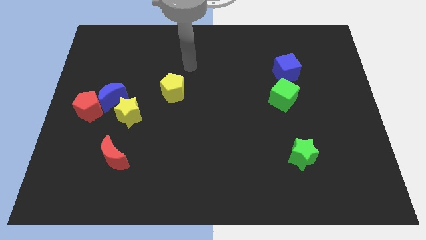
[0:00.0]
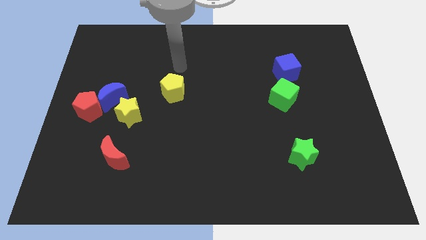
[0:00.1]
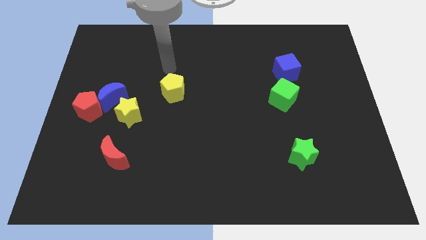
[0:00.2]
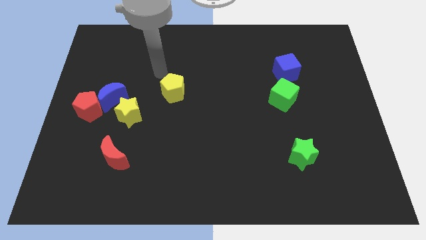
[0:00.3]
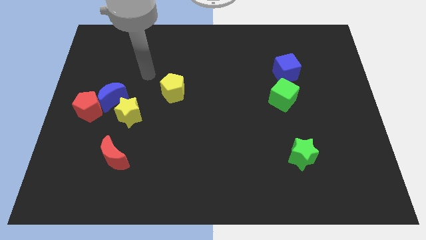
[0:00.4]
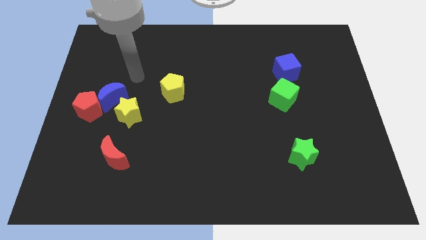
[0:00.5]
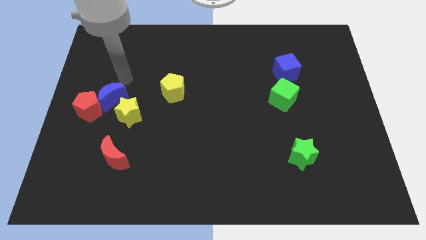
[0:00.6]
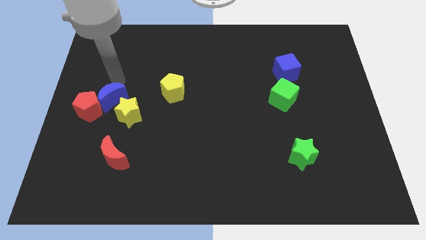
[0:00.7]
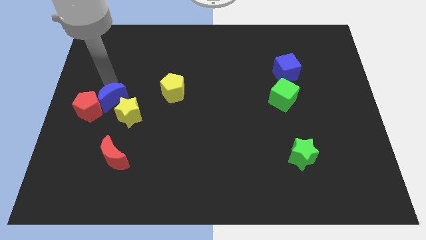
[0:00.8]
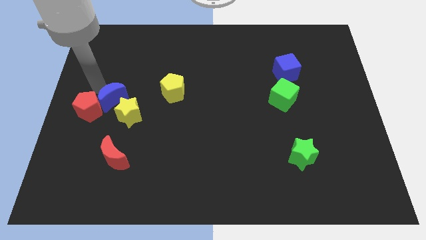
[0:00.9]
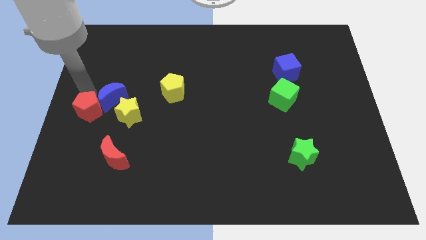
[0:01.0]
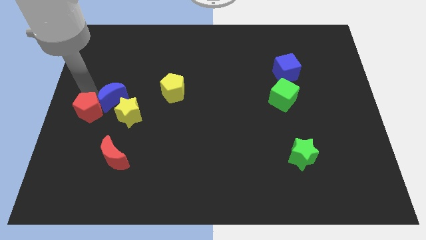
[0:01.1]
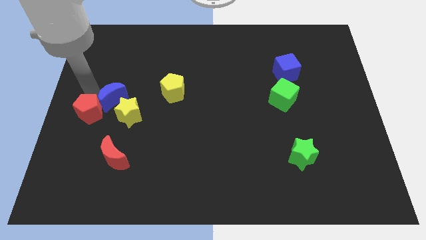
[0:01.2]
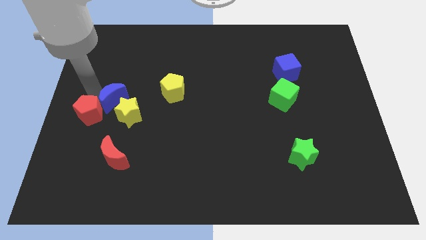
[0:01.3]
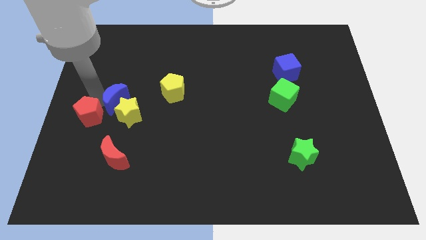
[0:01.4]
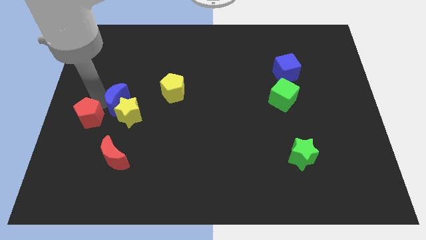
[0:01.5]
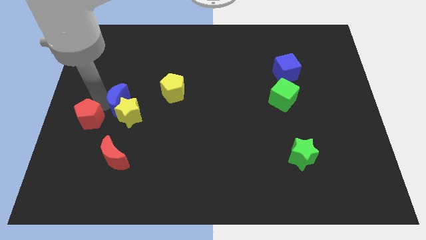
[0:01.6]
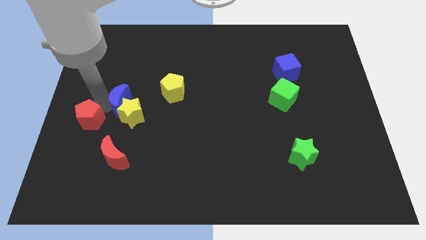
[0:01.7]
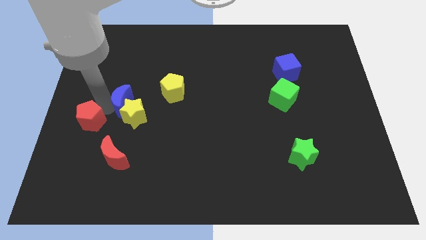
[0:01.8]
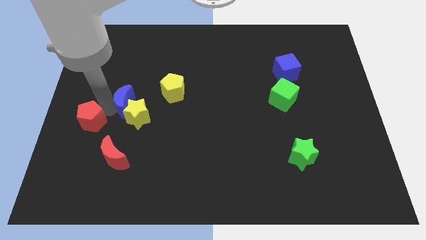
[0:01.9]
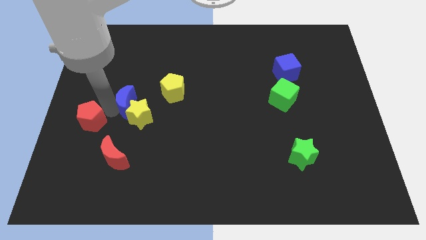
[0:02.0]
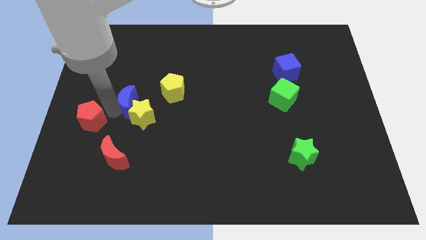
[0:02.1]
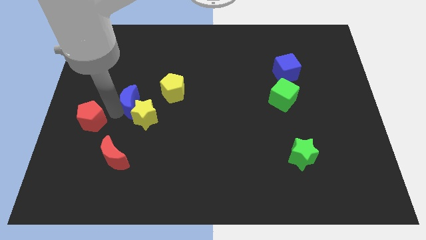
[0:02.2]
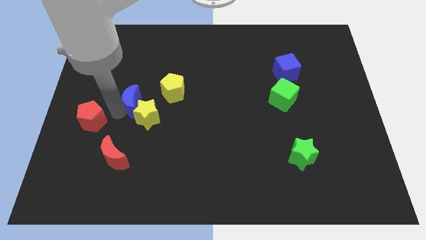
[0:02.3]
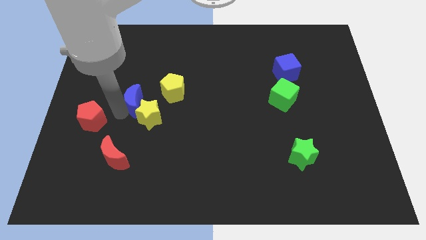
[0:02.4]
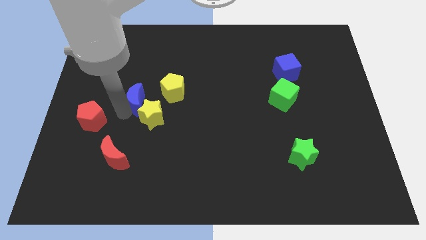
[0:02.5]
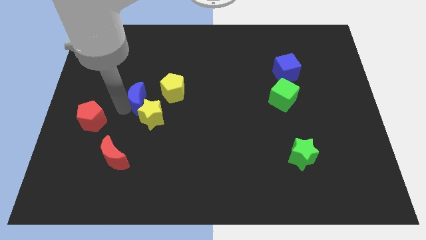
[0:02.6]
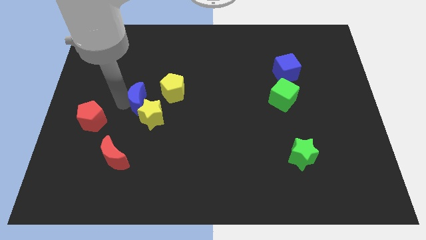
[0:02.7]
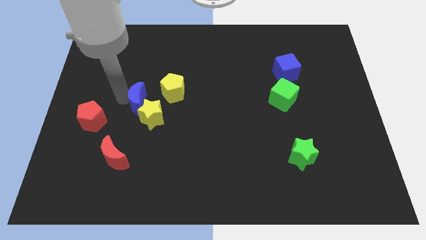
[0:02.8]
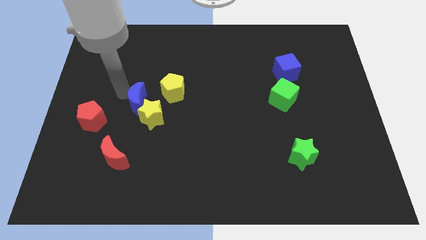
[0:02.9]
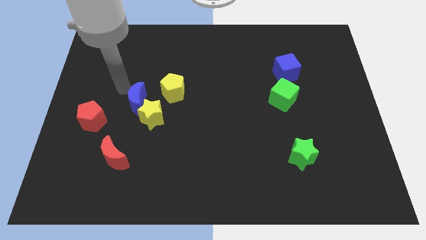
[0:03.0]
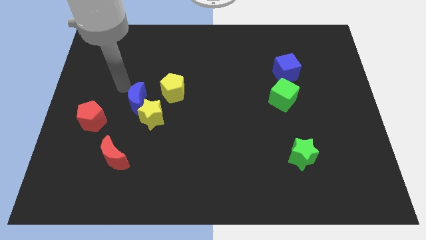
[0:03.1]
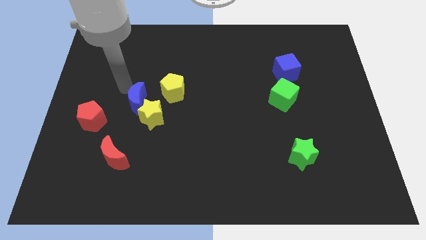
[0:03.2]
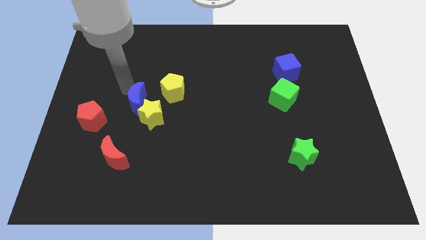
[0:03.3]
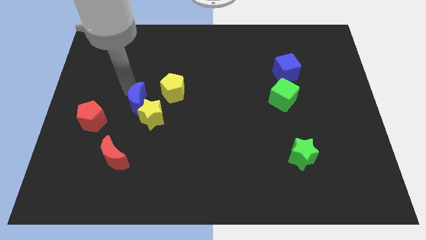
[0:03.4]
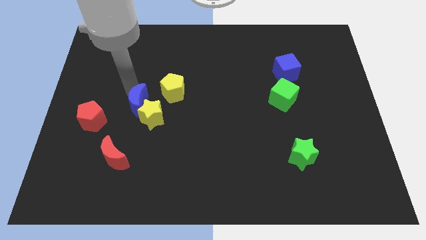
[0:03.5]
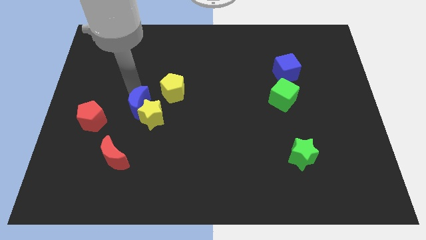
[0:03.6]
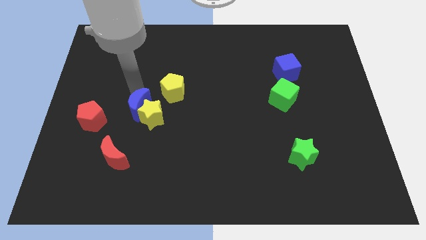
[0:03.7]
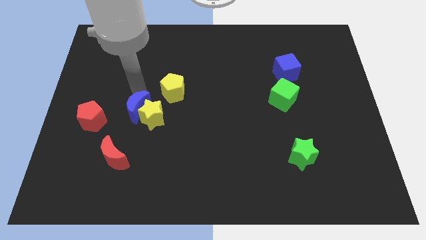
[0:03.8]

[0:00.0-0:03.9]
slightly push the blue moon downwards and right diagonally

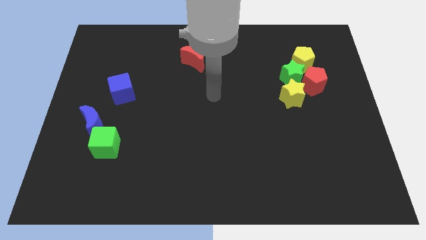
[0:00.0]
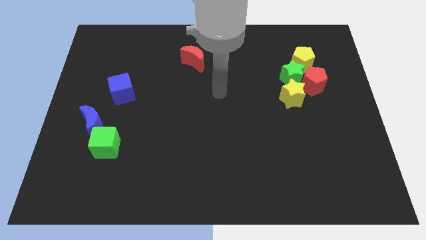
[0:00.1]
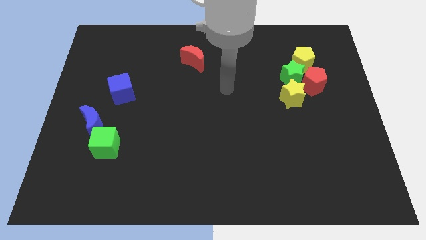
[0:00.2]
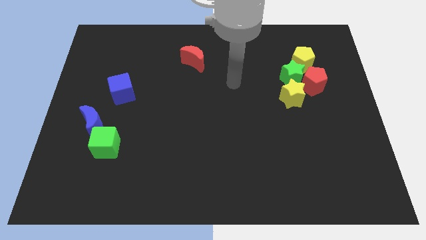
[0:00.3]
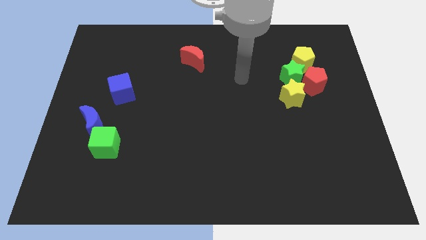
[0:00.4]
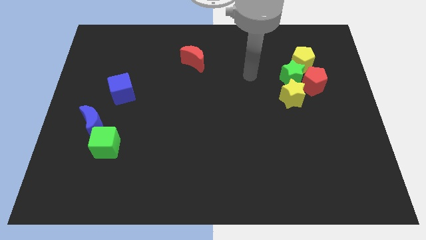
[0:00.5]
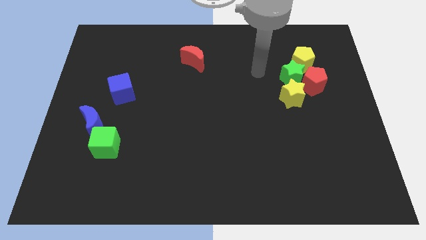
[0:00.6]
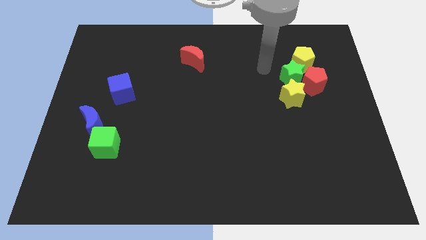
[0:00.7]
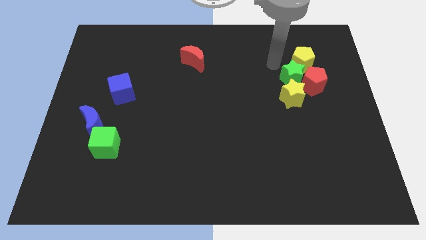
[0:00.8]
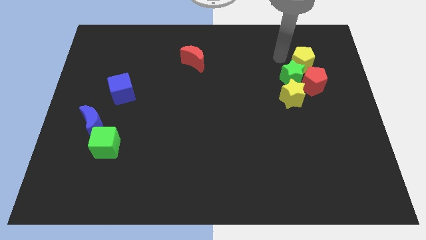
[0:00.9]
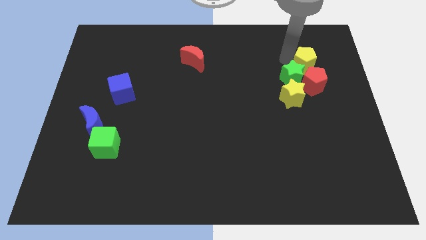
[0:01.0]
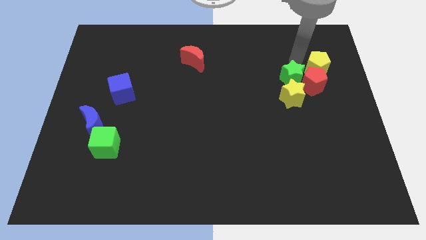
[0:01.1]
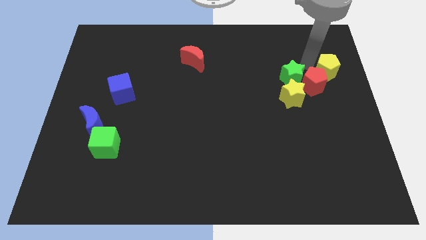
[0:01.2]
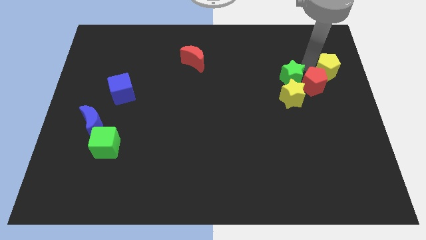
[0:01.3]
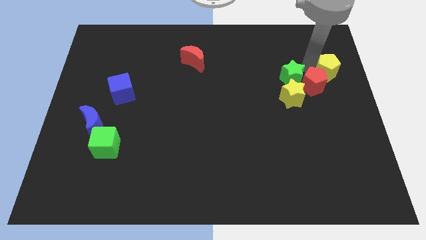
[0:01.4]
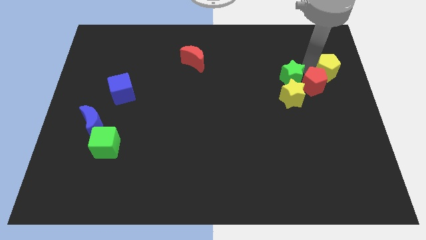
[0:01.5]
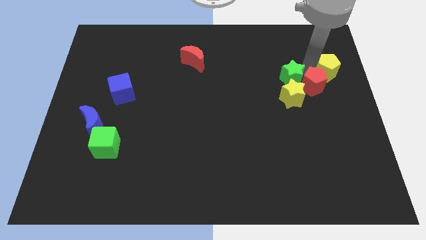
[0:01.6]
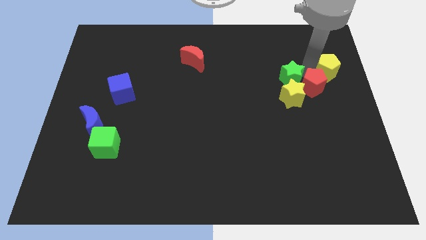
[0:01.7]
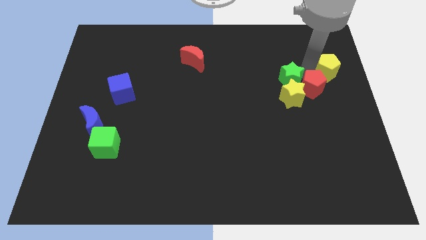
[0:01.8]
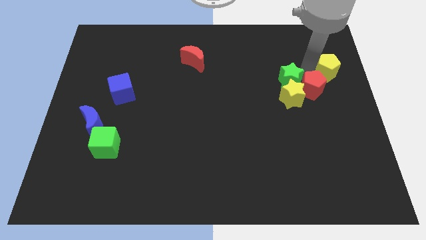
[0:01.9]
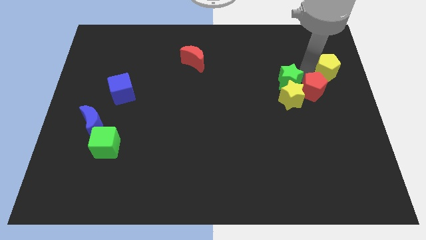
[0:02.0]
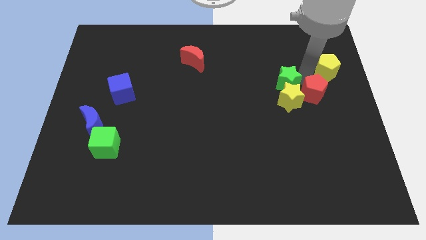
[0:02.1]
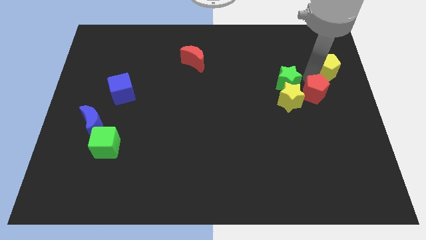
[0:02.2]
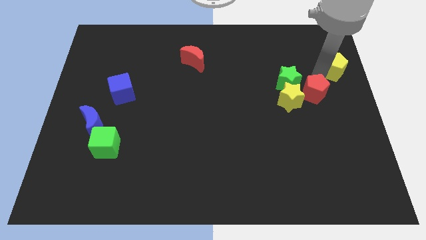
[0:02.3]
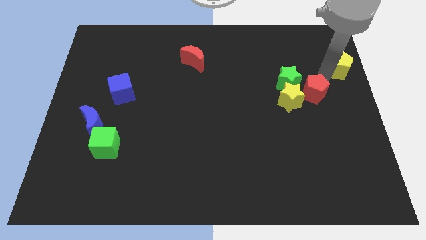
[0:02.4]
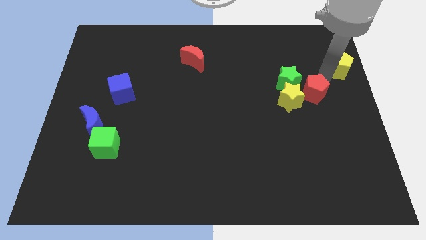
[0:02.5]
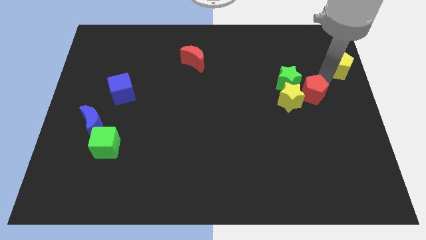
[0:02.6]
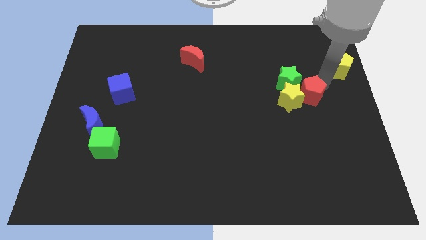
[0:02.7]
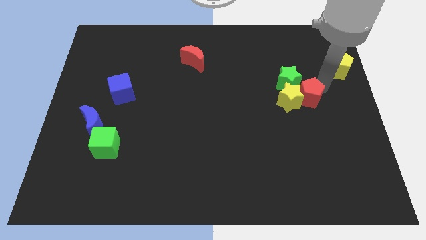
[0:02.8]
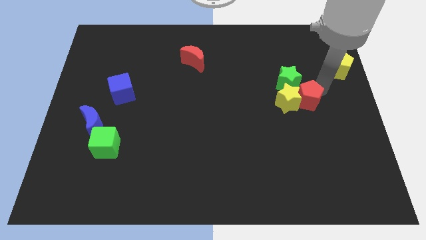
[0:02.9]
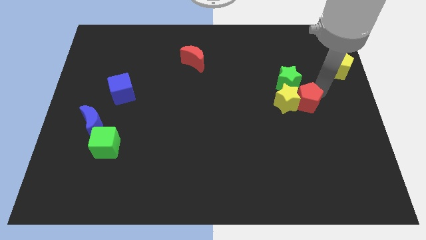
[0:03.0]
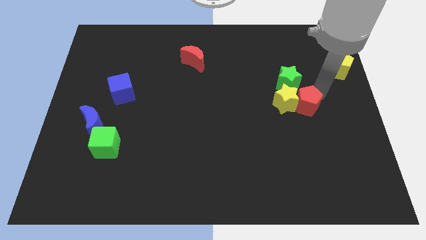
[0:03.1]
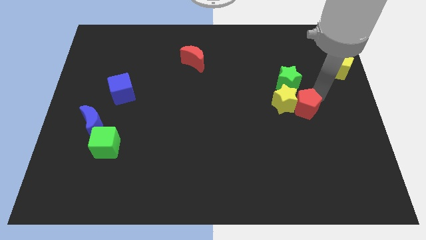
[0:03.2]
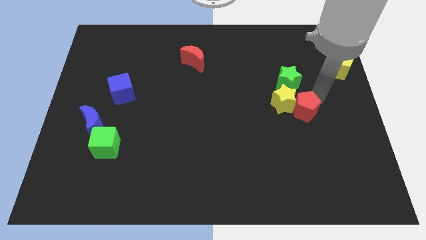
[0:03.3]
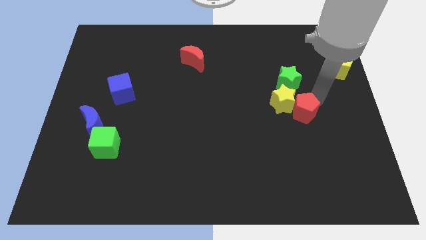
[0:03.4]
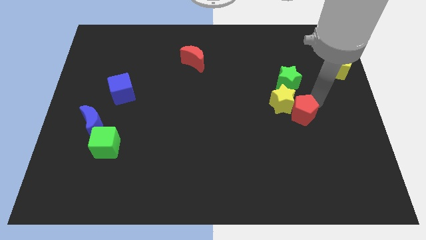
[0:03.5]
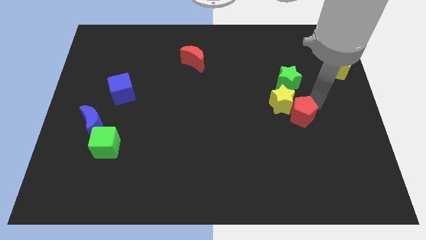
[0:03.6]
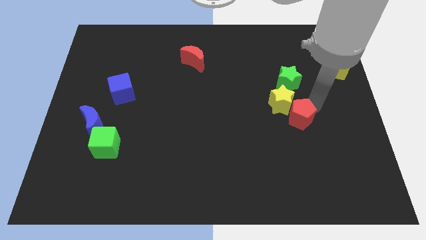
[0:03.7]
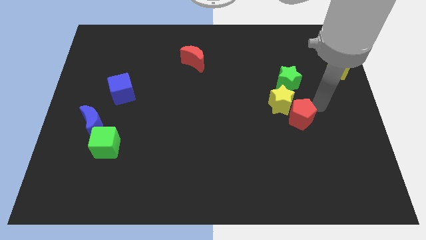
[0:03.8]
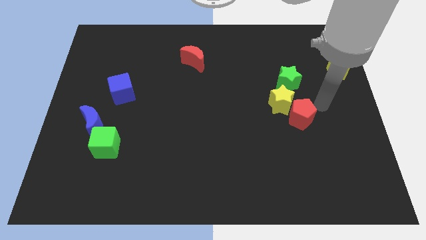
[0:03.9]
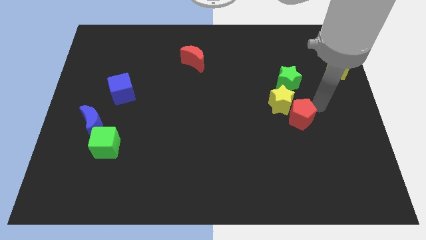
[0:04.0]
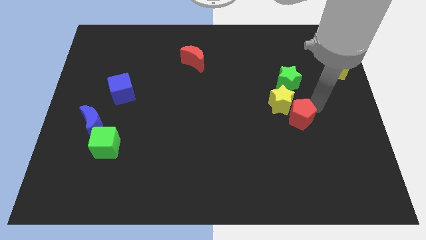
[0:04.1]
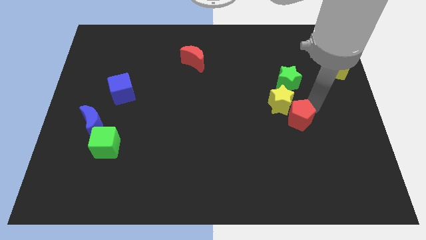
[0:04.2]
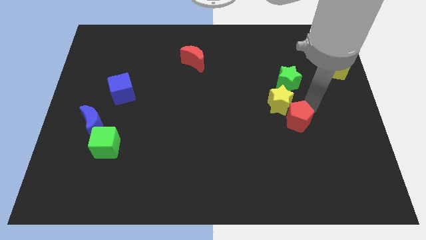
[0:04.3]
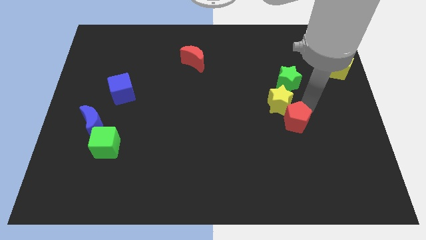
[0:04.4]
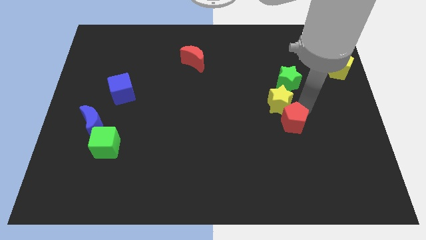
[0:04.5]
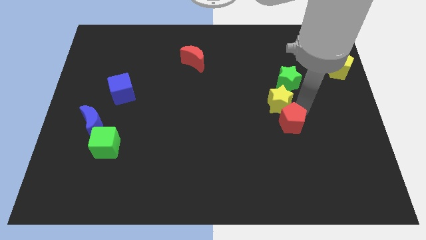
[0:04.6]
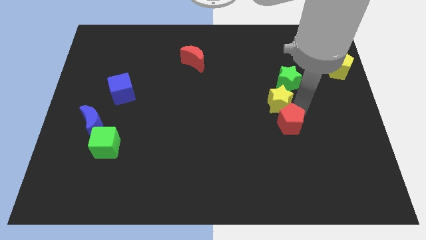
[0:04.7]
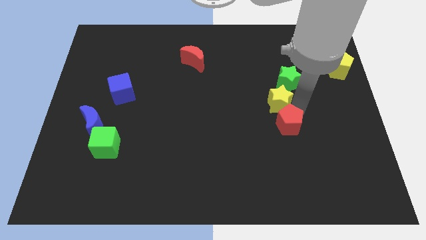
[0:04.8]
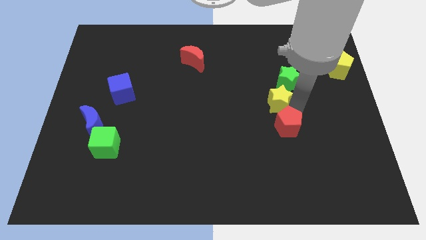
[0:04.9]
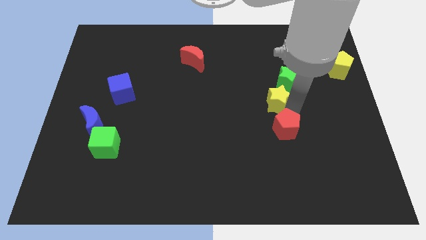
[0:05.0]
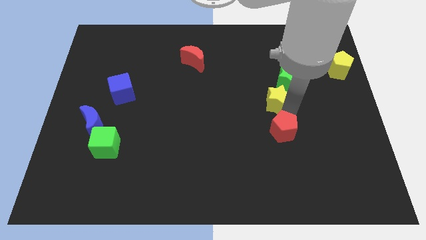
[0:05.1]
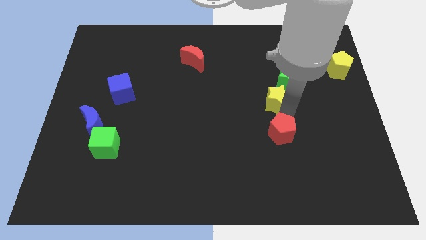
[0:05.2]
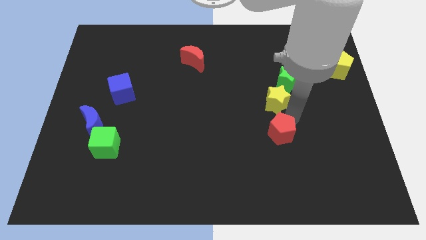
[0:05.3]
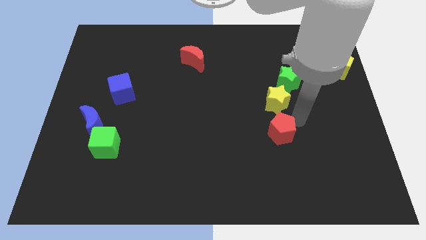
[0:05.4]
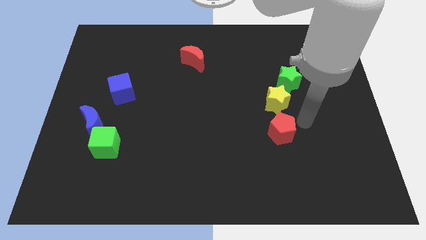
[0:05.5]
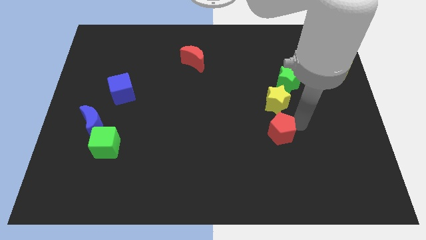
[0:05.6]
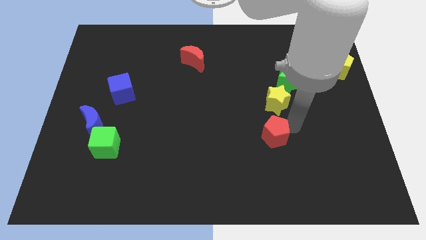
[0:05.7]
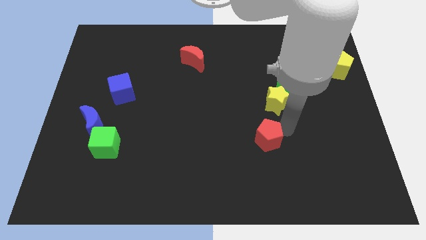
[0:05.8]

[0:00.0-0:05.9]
move the red pentagon down and left
